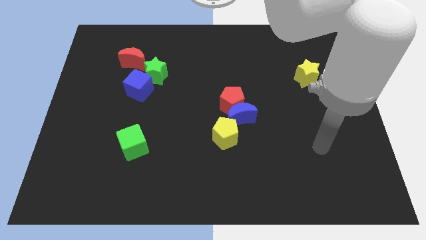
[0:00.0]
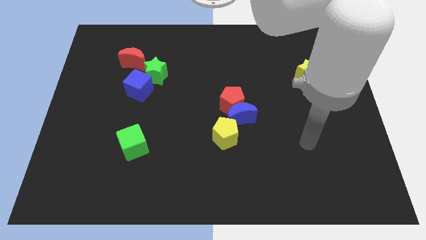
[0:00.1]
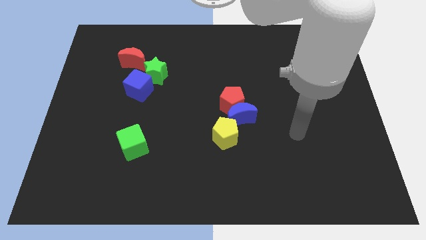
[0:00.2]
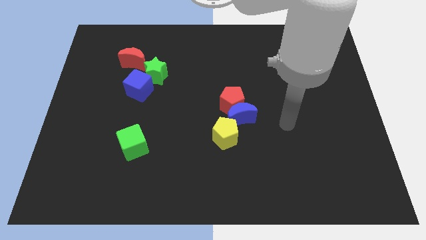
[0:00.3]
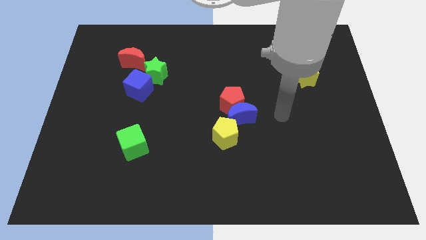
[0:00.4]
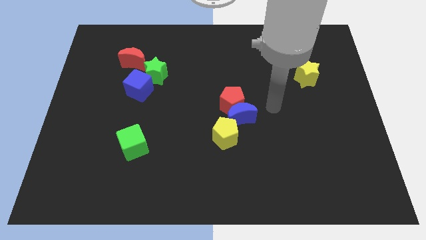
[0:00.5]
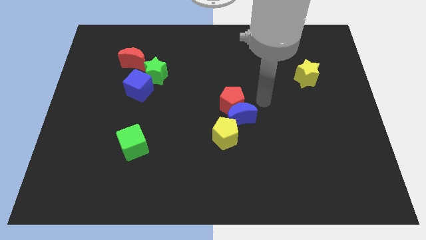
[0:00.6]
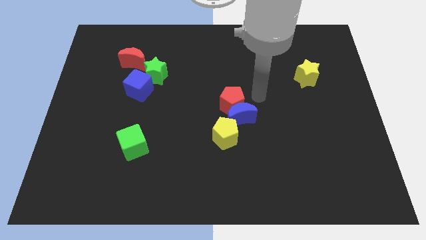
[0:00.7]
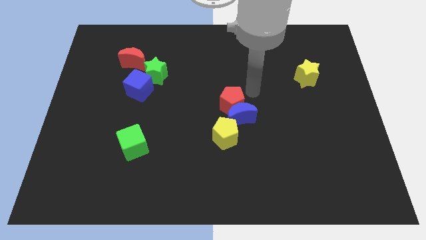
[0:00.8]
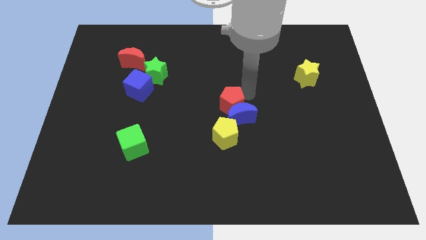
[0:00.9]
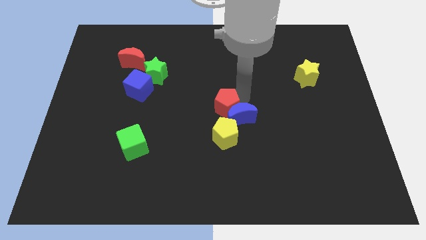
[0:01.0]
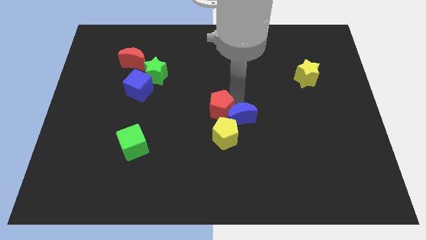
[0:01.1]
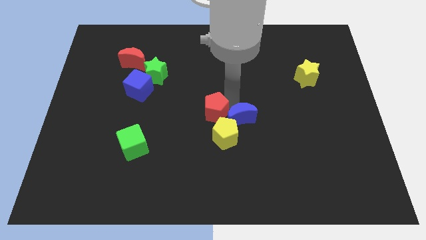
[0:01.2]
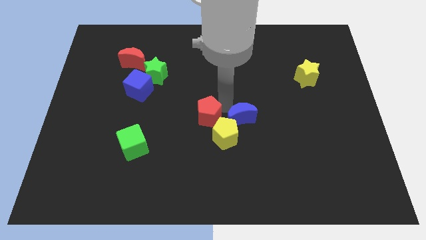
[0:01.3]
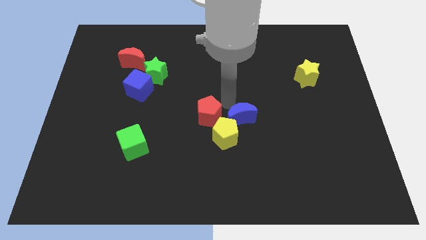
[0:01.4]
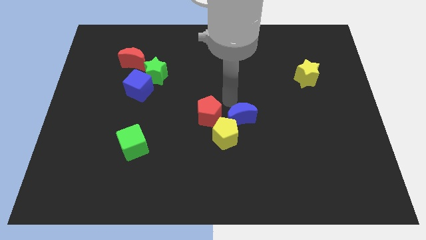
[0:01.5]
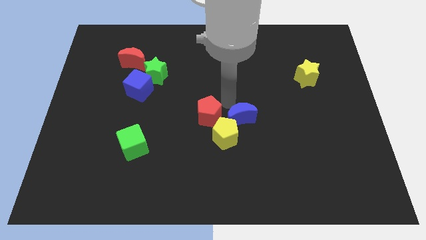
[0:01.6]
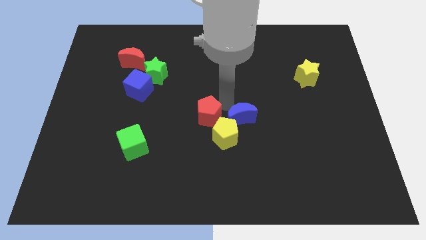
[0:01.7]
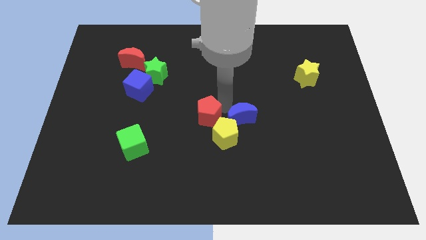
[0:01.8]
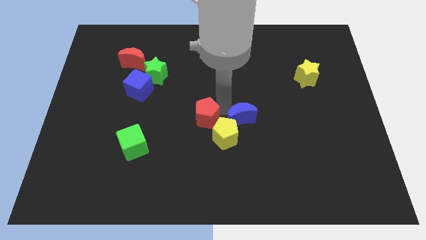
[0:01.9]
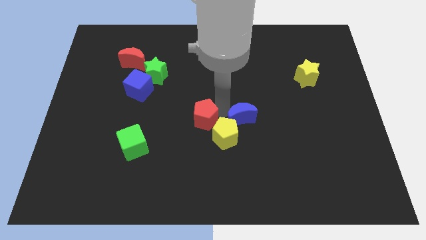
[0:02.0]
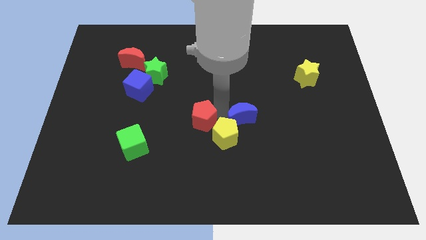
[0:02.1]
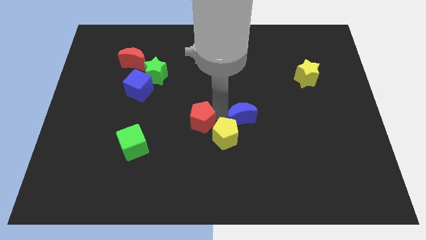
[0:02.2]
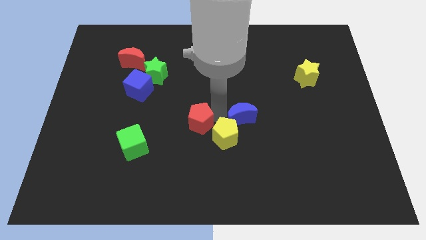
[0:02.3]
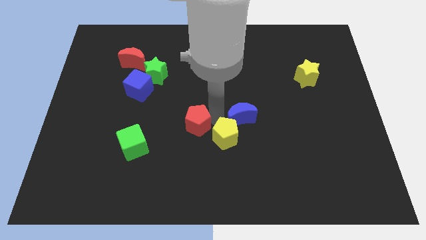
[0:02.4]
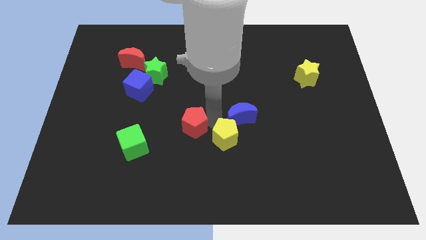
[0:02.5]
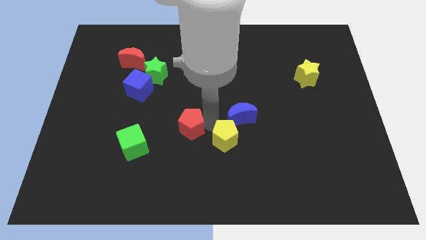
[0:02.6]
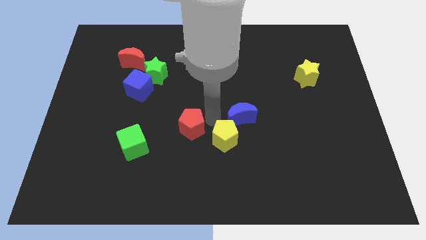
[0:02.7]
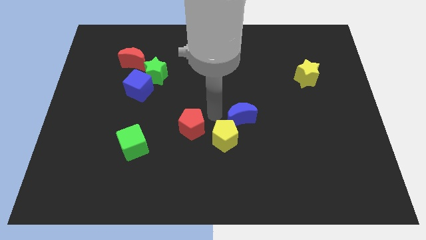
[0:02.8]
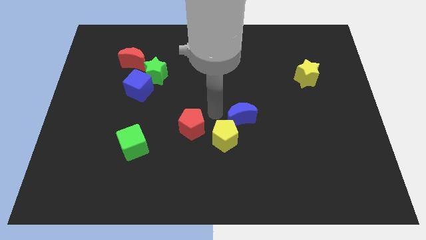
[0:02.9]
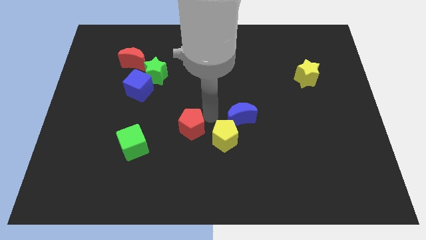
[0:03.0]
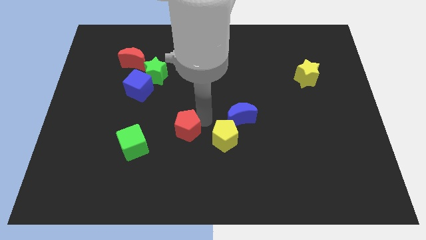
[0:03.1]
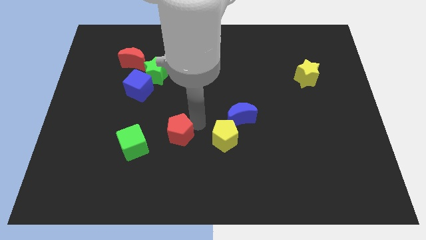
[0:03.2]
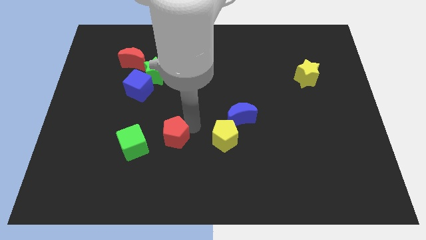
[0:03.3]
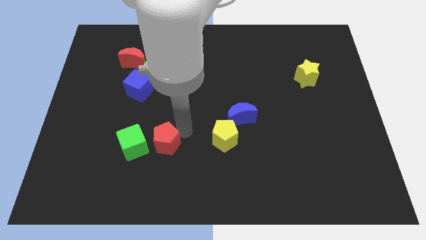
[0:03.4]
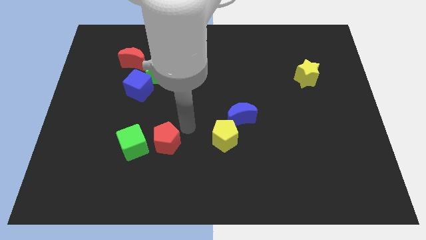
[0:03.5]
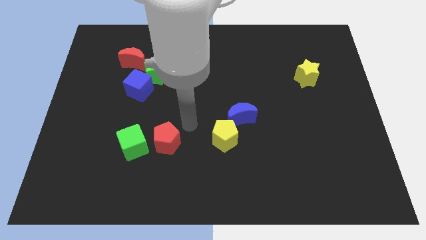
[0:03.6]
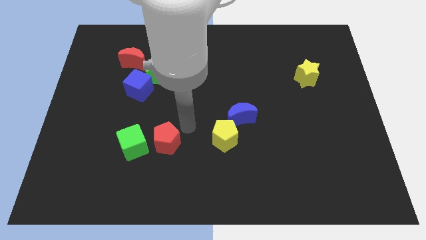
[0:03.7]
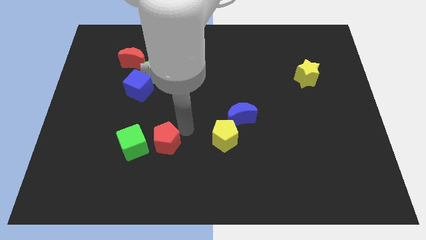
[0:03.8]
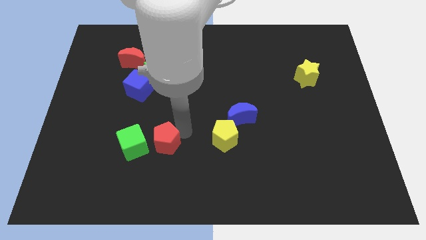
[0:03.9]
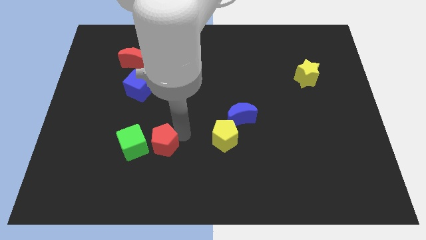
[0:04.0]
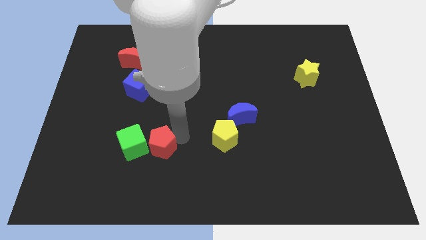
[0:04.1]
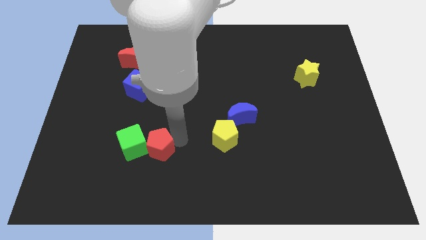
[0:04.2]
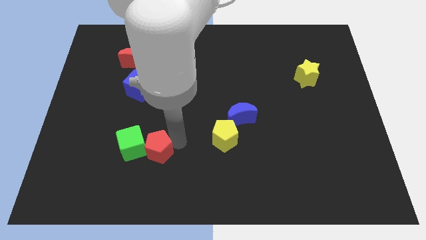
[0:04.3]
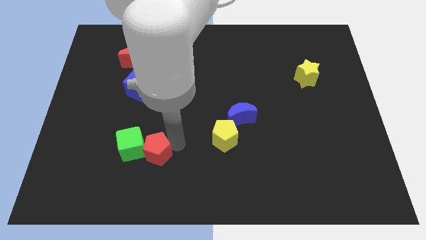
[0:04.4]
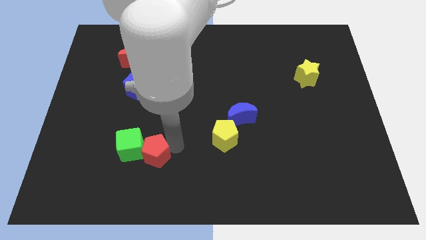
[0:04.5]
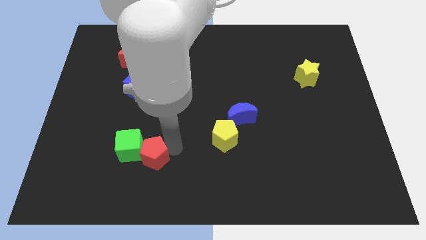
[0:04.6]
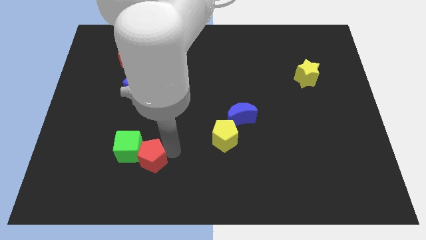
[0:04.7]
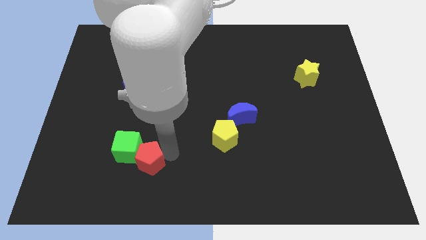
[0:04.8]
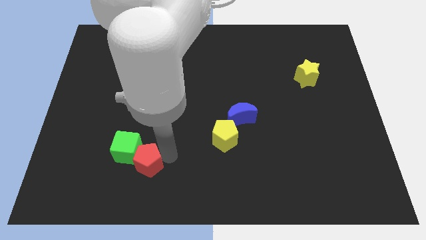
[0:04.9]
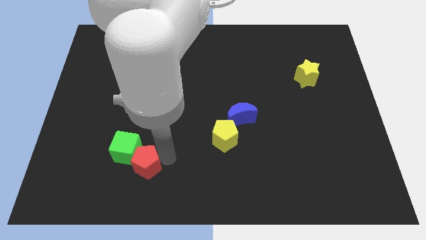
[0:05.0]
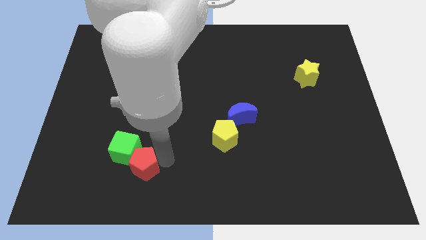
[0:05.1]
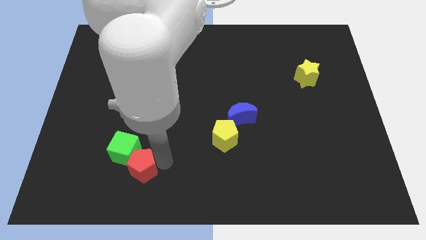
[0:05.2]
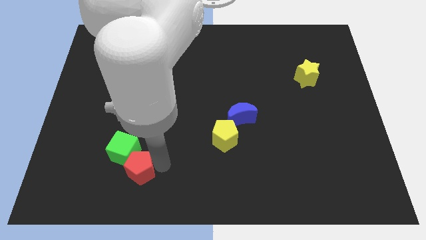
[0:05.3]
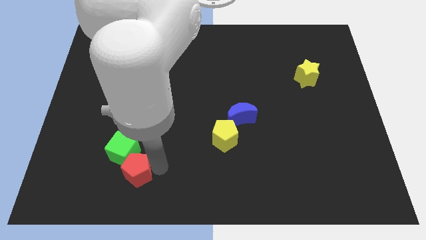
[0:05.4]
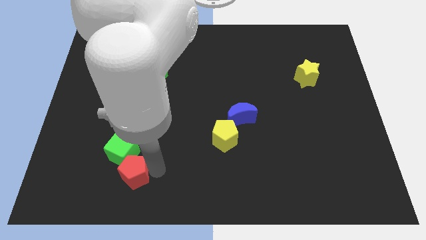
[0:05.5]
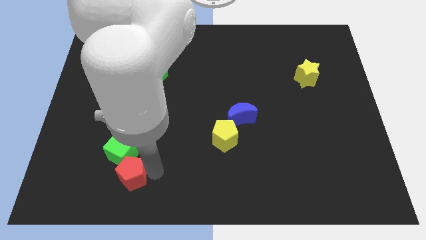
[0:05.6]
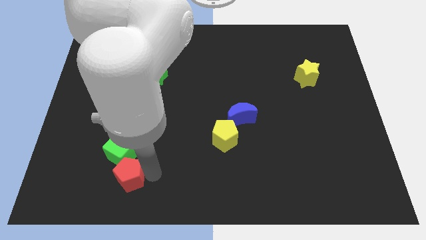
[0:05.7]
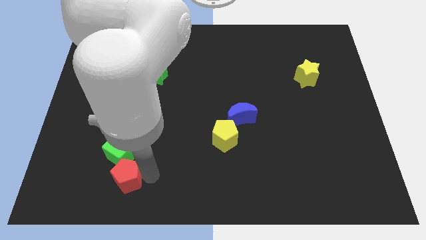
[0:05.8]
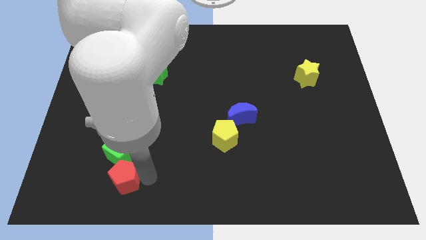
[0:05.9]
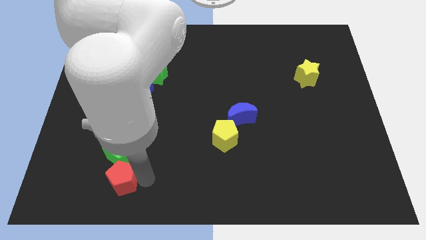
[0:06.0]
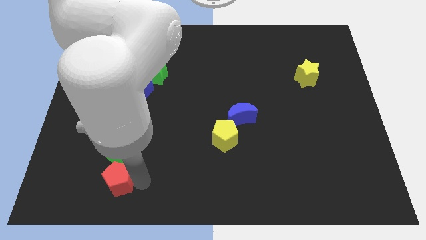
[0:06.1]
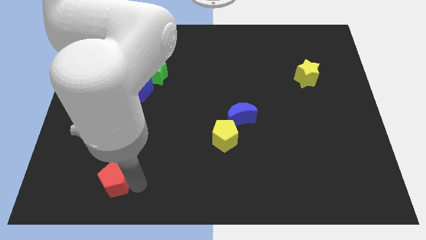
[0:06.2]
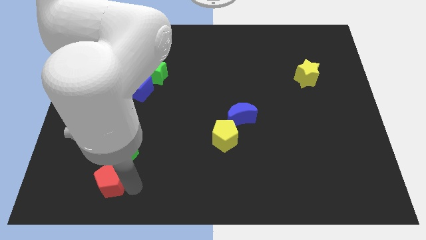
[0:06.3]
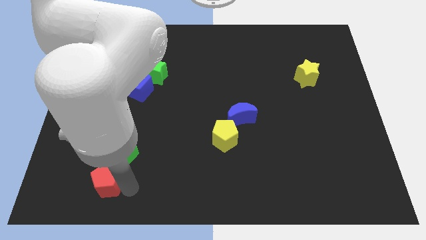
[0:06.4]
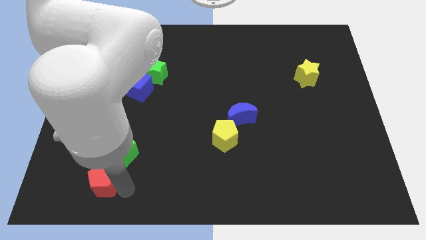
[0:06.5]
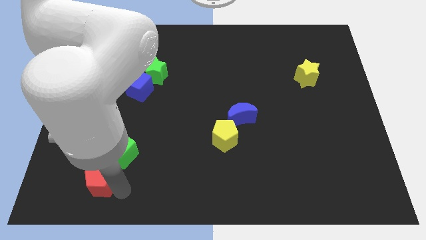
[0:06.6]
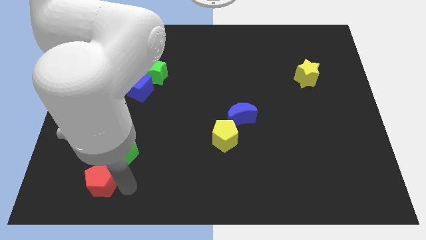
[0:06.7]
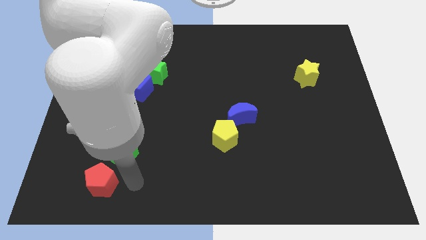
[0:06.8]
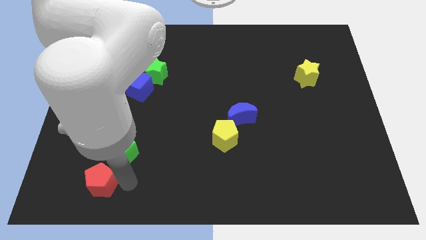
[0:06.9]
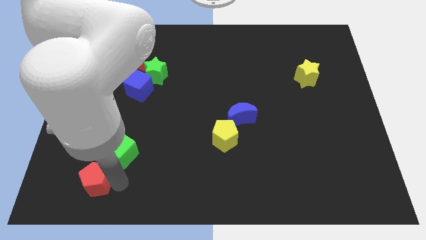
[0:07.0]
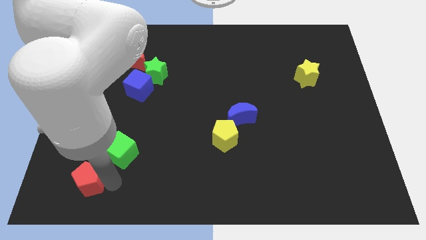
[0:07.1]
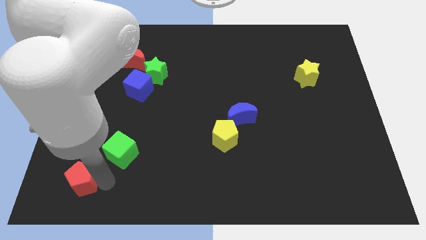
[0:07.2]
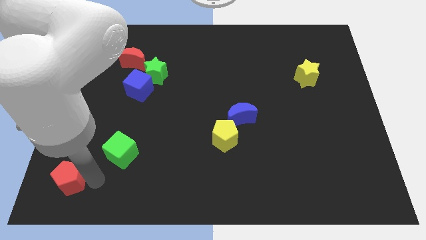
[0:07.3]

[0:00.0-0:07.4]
push the red pentagon to the bottom left corner
